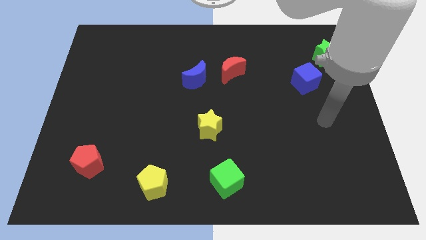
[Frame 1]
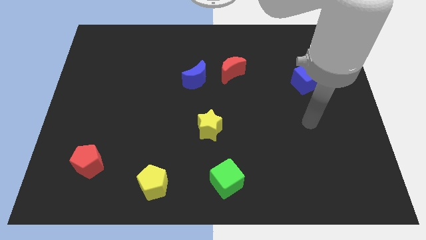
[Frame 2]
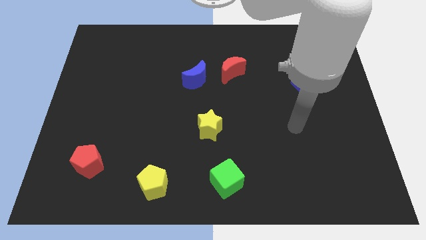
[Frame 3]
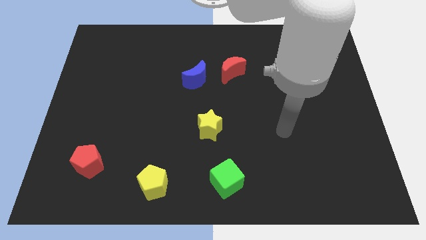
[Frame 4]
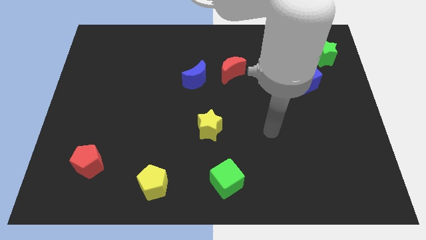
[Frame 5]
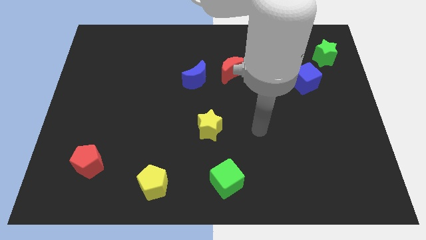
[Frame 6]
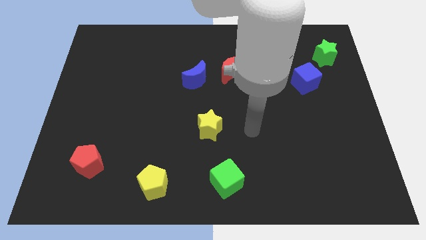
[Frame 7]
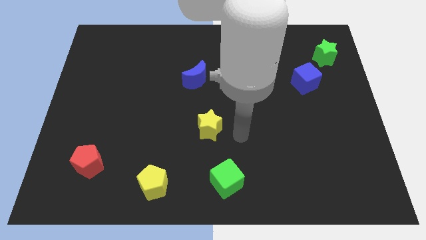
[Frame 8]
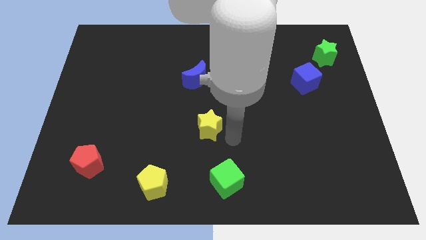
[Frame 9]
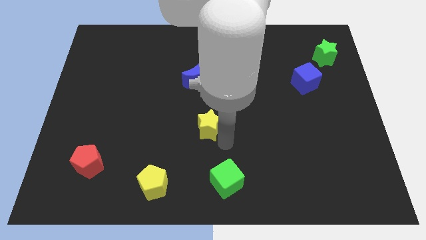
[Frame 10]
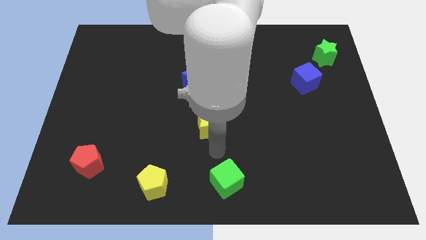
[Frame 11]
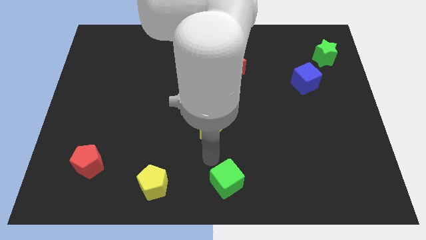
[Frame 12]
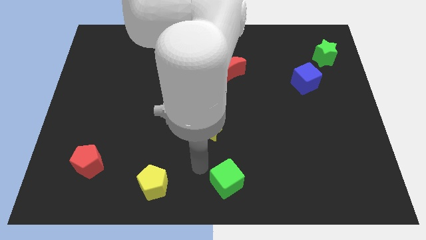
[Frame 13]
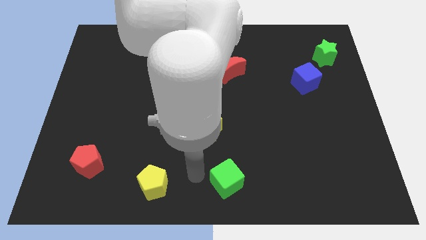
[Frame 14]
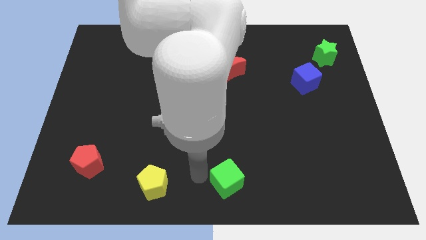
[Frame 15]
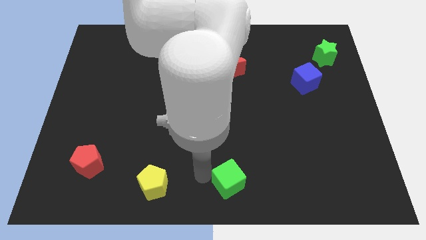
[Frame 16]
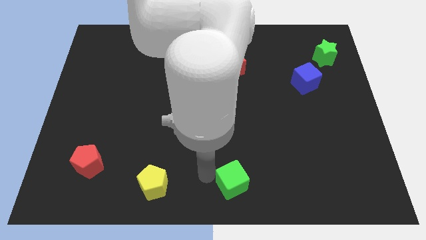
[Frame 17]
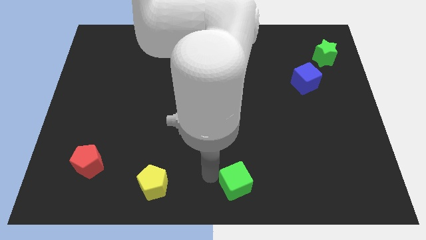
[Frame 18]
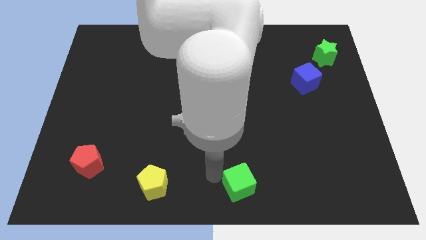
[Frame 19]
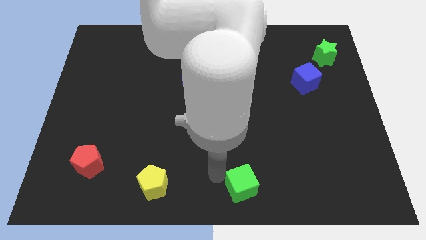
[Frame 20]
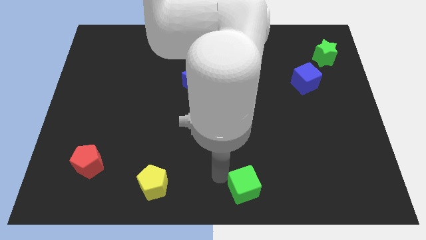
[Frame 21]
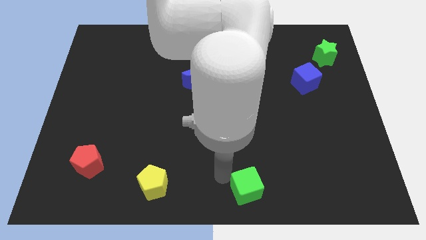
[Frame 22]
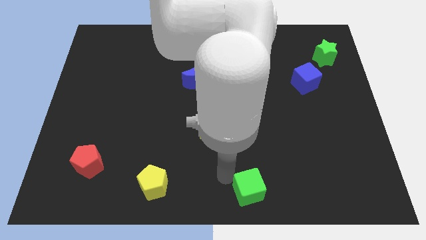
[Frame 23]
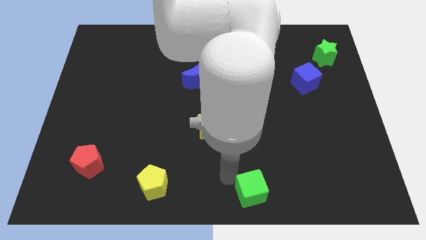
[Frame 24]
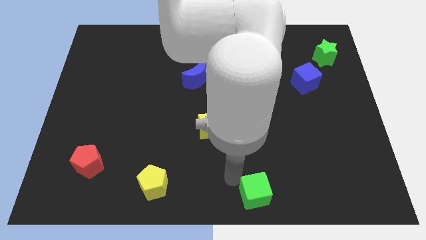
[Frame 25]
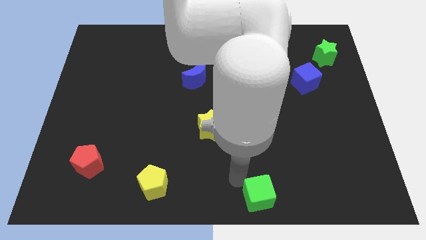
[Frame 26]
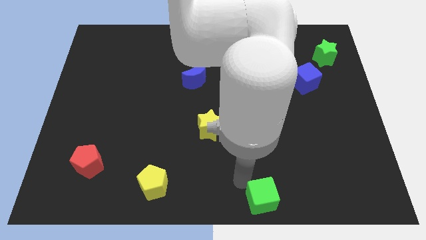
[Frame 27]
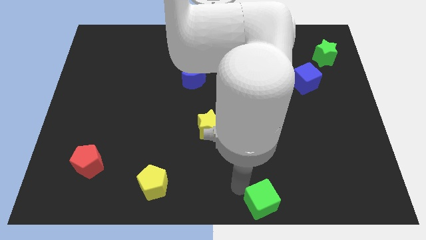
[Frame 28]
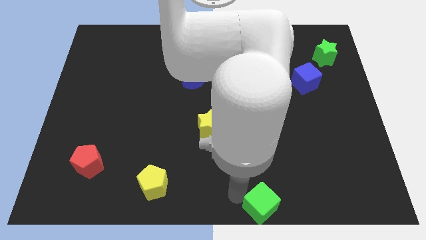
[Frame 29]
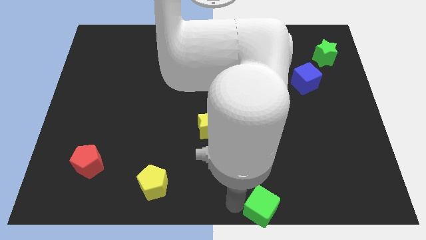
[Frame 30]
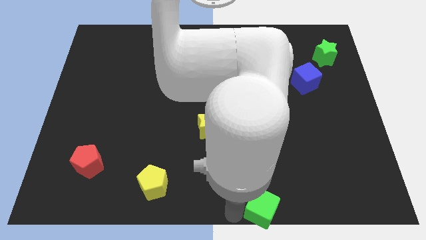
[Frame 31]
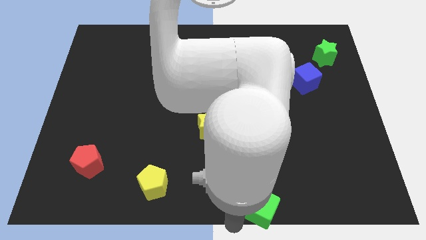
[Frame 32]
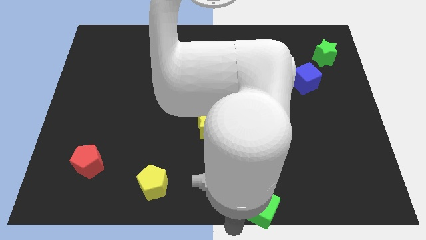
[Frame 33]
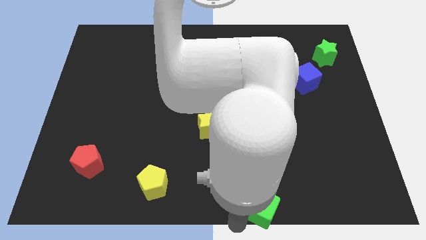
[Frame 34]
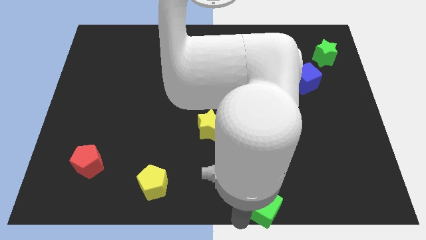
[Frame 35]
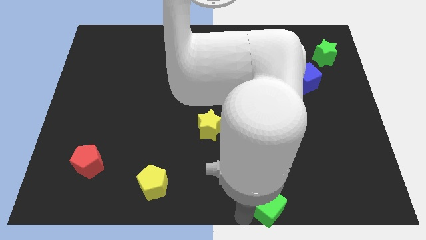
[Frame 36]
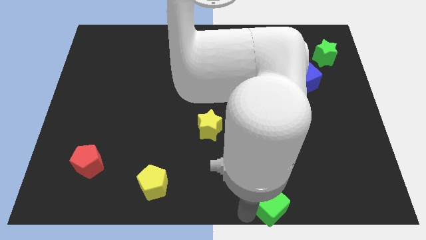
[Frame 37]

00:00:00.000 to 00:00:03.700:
slightly push the green cube to the right

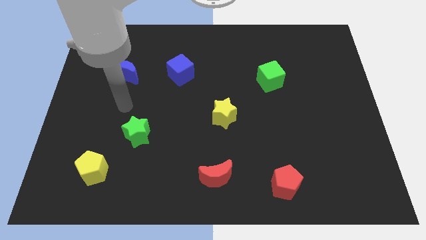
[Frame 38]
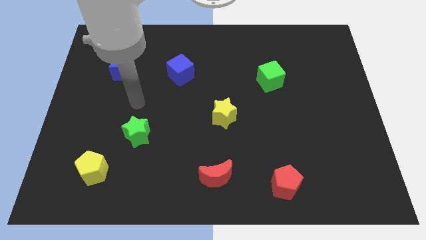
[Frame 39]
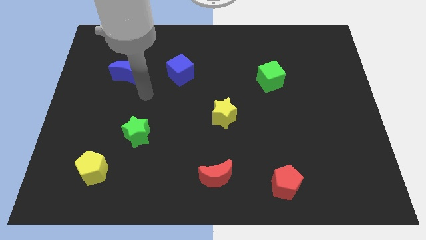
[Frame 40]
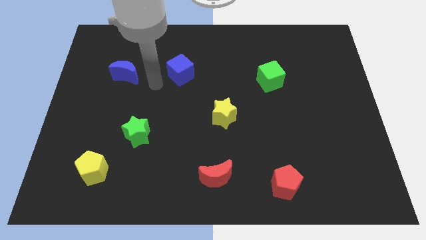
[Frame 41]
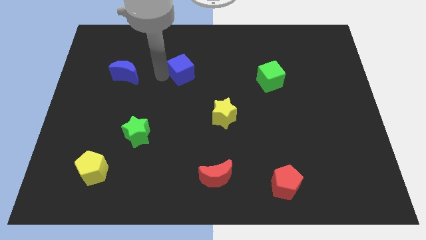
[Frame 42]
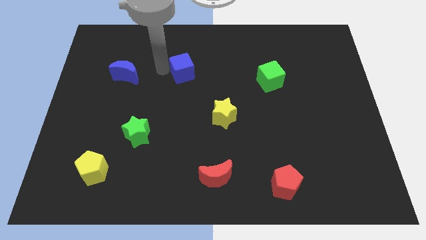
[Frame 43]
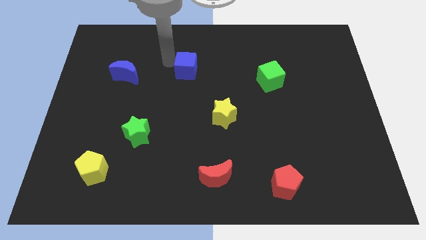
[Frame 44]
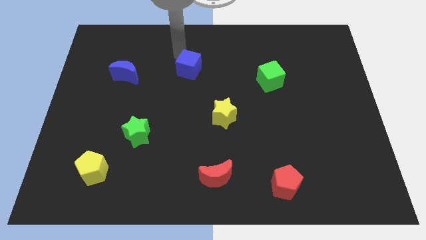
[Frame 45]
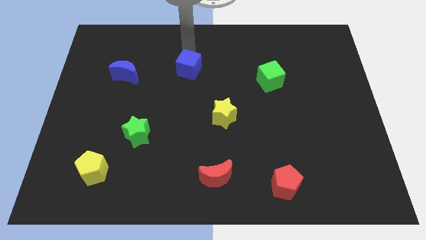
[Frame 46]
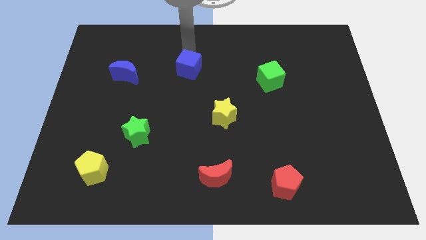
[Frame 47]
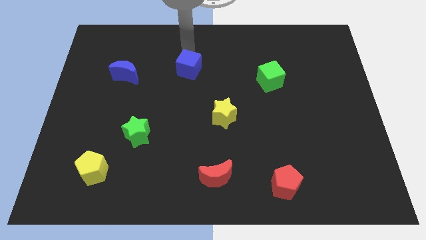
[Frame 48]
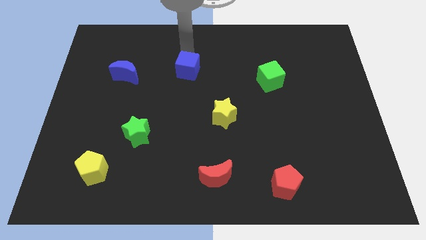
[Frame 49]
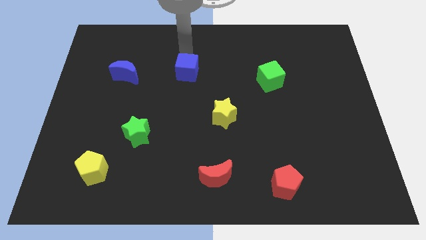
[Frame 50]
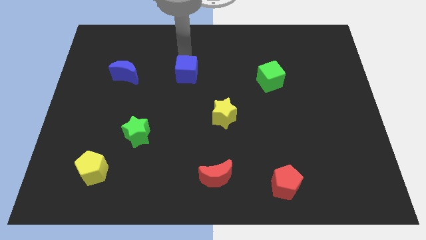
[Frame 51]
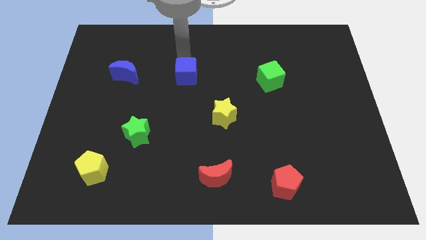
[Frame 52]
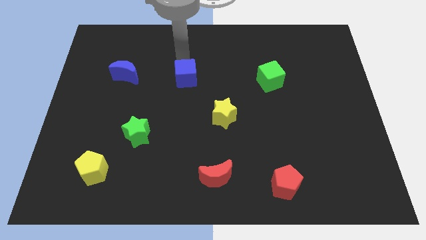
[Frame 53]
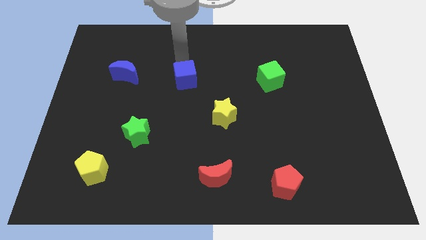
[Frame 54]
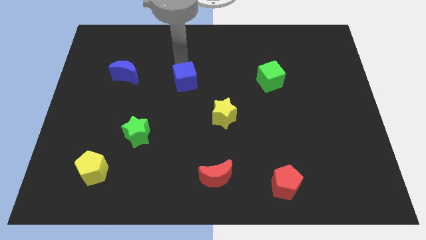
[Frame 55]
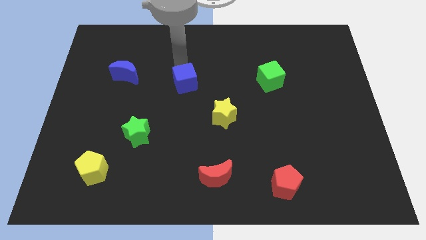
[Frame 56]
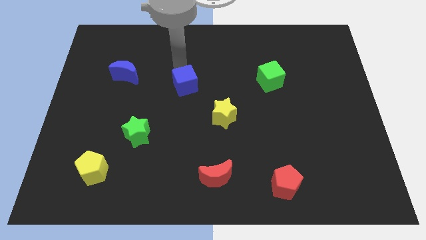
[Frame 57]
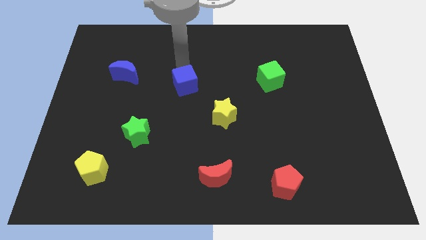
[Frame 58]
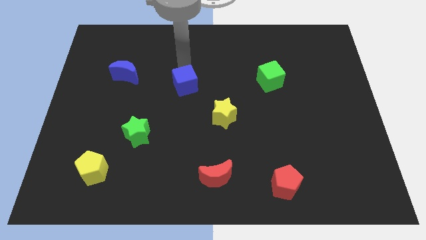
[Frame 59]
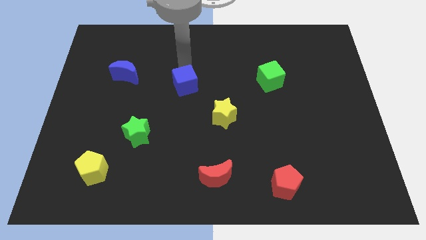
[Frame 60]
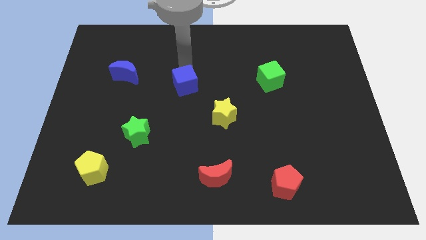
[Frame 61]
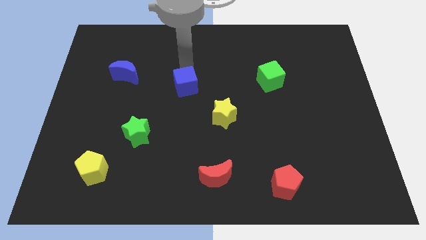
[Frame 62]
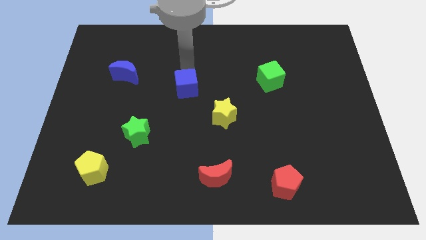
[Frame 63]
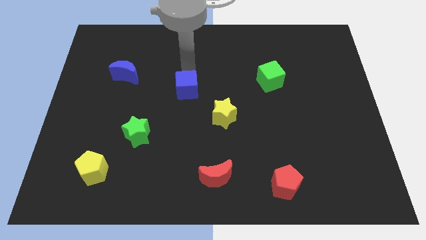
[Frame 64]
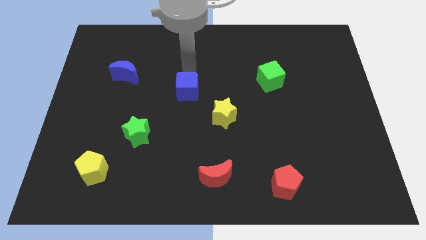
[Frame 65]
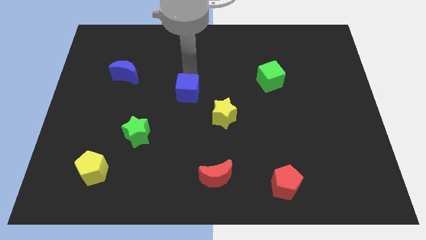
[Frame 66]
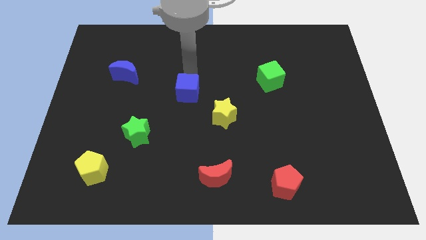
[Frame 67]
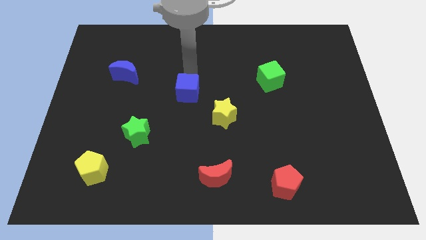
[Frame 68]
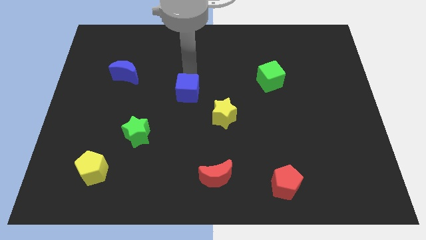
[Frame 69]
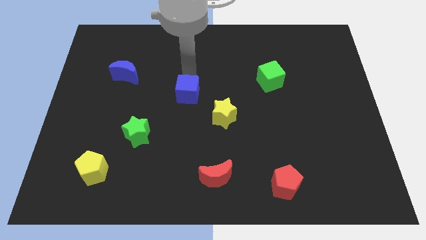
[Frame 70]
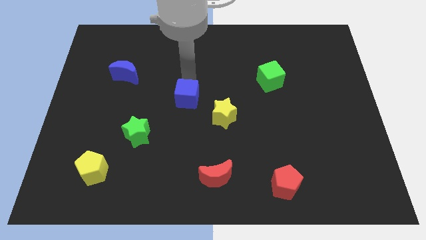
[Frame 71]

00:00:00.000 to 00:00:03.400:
push the blue cube down a bit

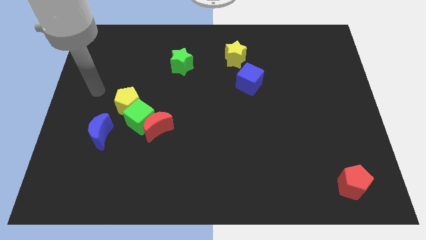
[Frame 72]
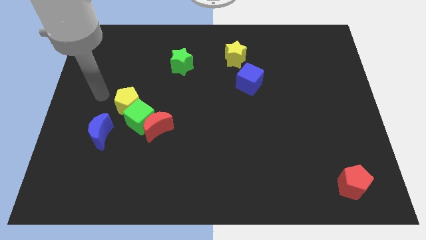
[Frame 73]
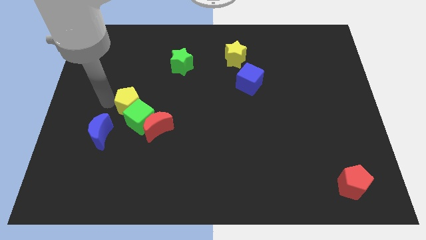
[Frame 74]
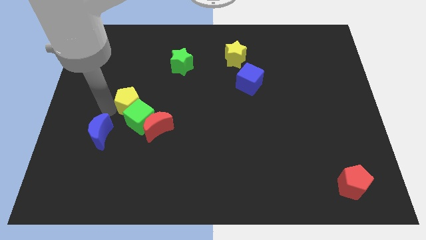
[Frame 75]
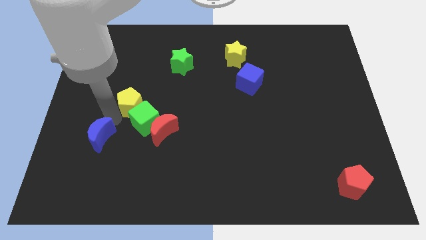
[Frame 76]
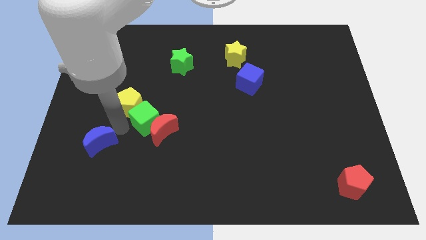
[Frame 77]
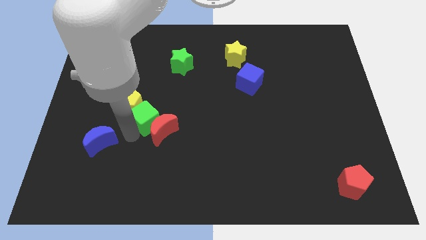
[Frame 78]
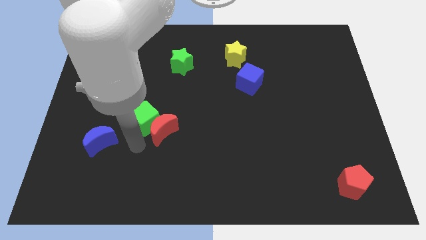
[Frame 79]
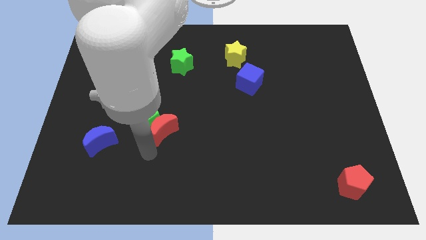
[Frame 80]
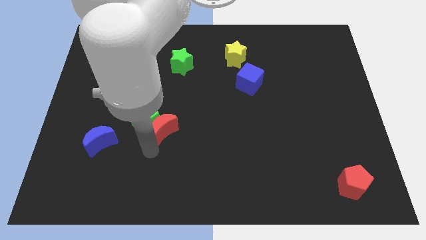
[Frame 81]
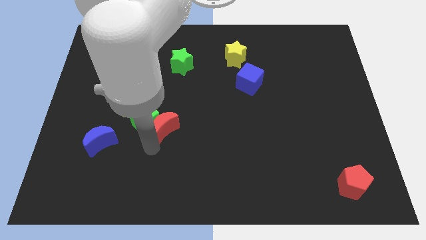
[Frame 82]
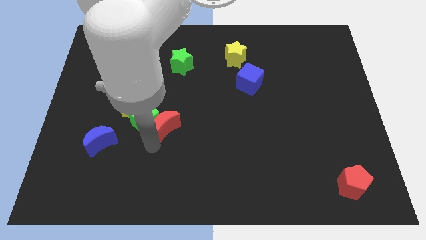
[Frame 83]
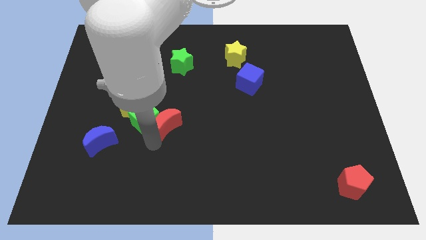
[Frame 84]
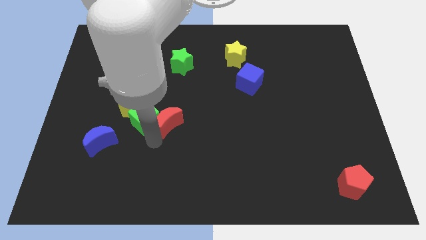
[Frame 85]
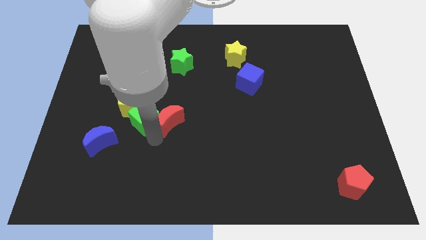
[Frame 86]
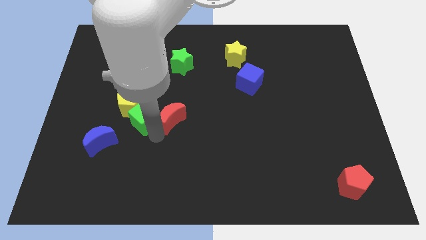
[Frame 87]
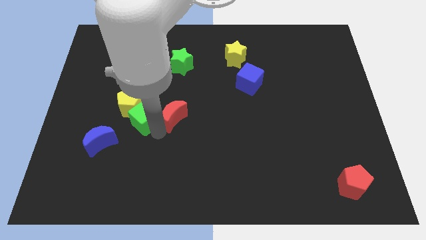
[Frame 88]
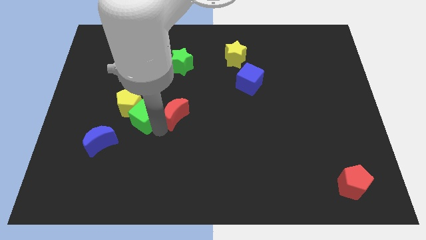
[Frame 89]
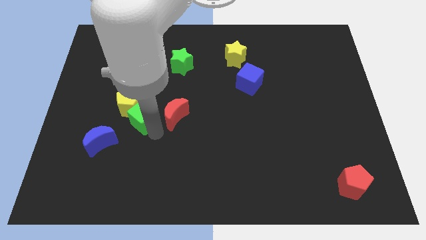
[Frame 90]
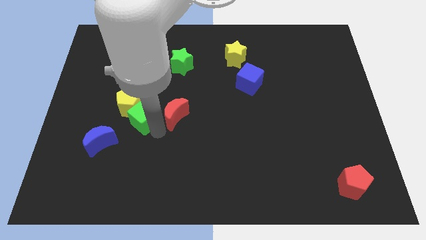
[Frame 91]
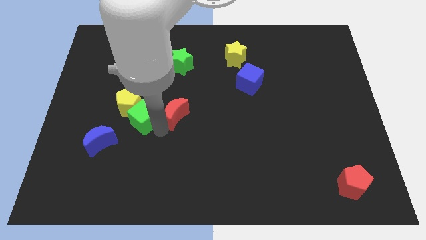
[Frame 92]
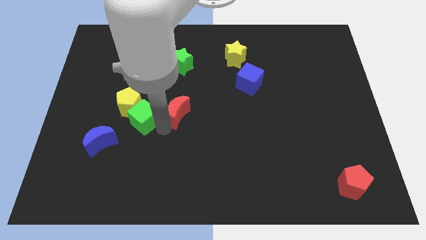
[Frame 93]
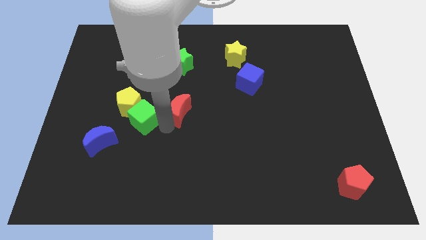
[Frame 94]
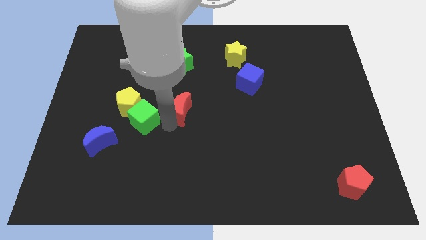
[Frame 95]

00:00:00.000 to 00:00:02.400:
push the red moon a little up and then to the right
